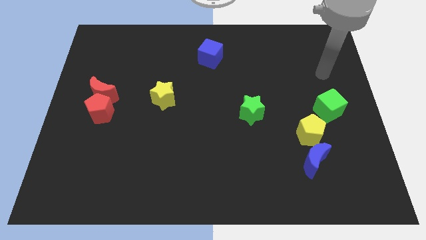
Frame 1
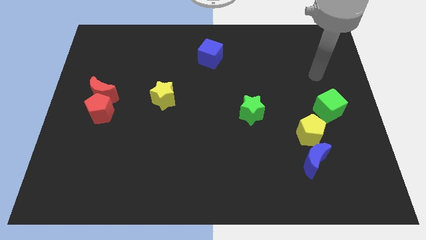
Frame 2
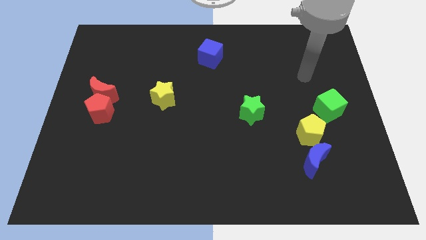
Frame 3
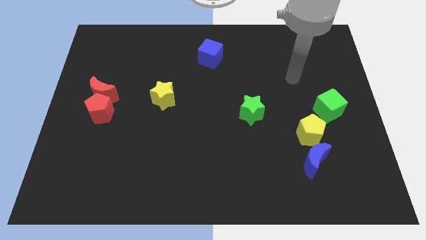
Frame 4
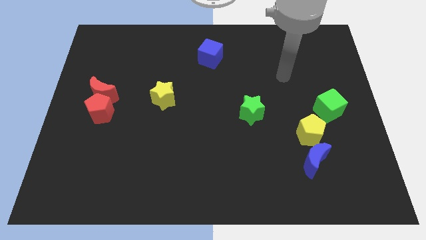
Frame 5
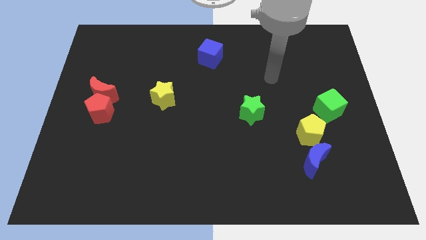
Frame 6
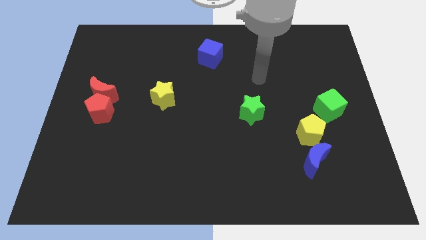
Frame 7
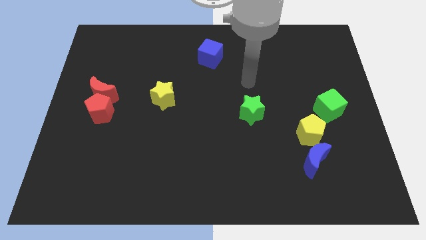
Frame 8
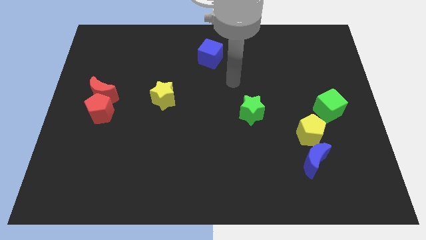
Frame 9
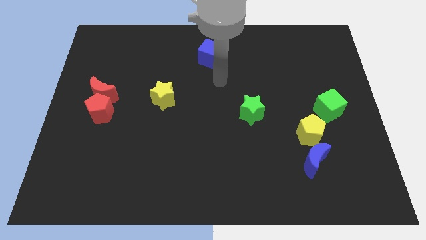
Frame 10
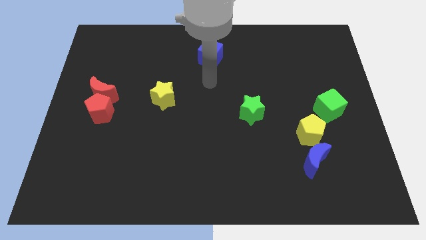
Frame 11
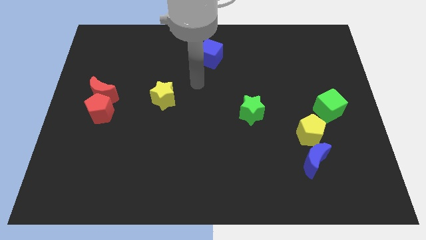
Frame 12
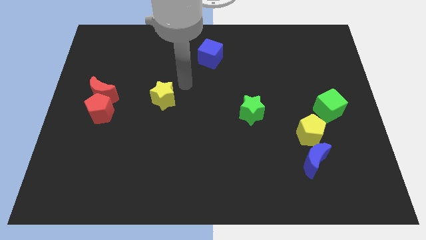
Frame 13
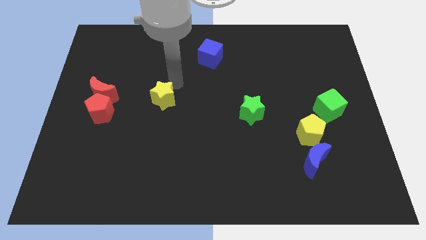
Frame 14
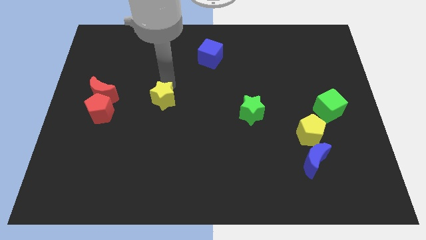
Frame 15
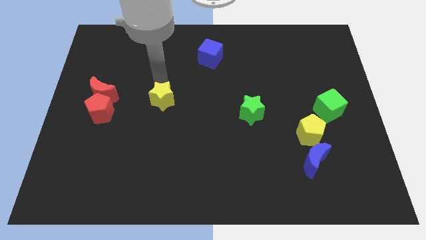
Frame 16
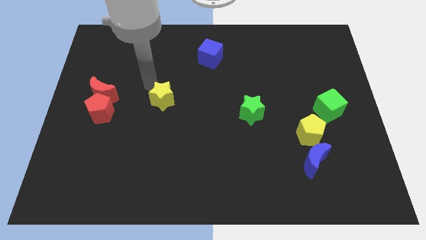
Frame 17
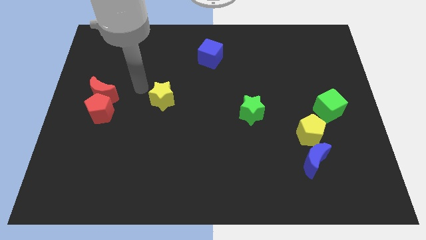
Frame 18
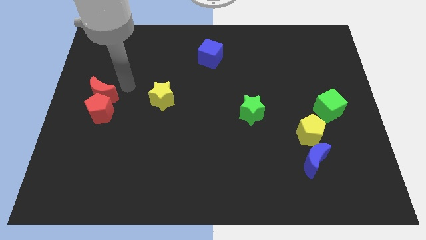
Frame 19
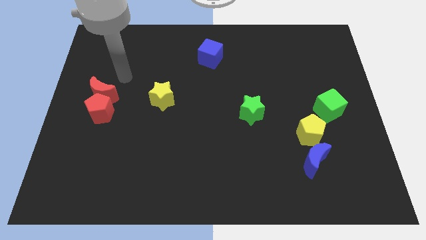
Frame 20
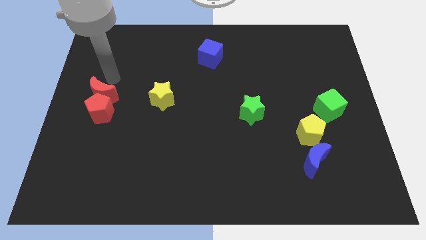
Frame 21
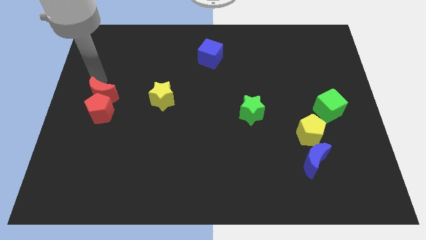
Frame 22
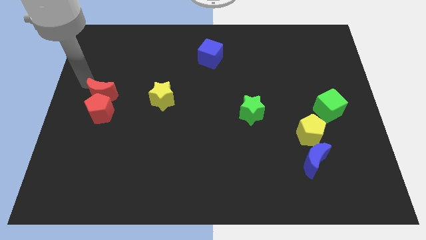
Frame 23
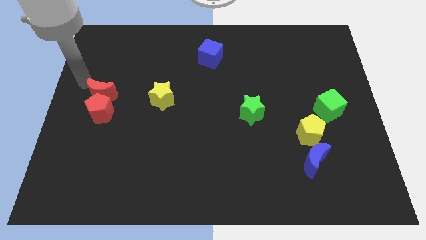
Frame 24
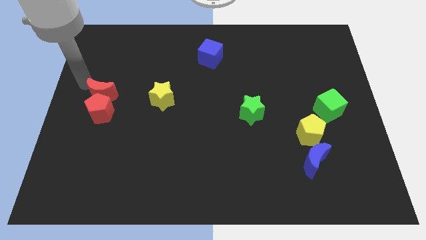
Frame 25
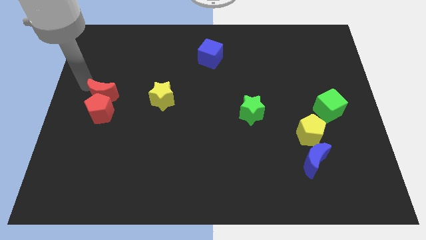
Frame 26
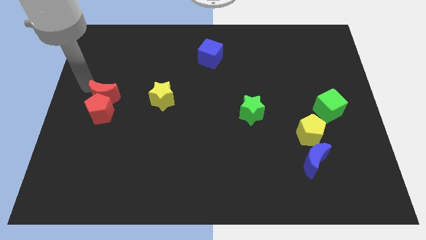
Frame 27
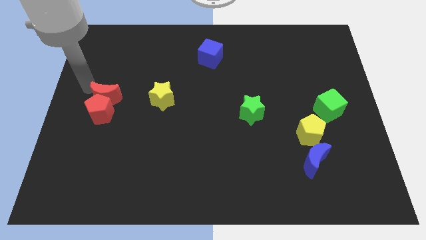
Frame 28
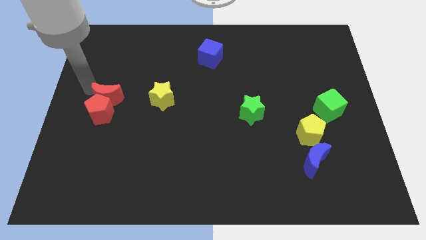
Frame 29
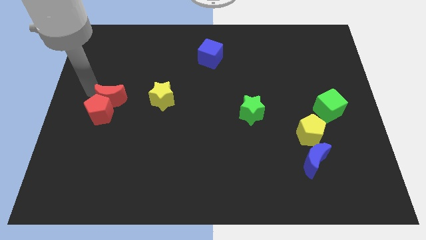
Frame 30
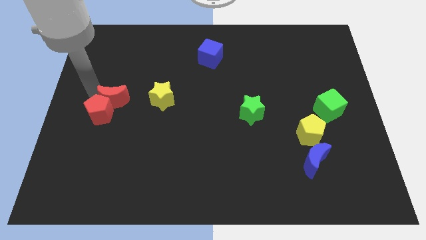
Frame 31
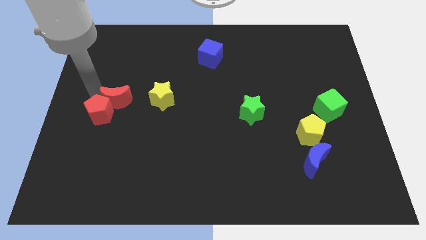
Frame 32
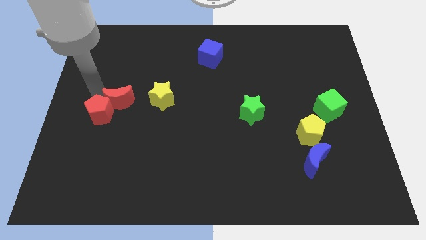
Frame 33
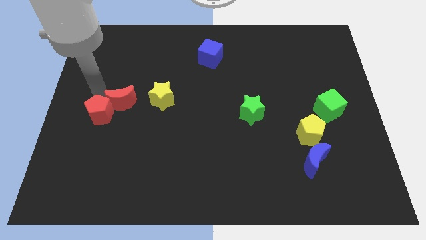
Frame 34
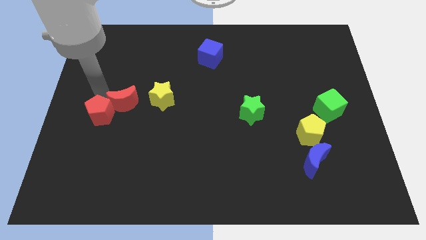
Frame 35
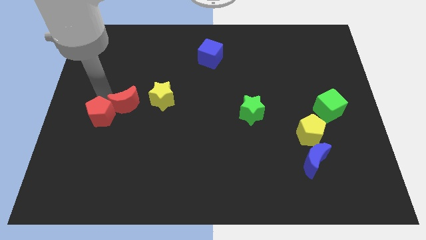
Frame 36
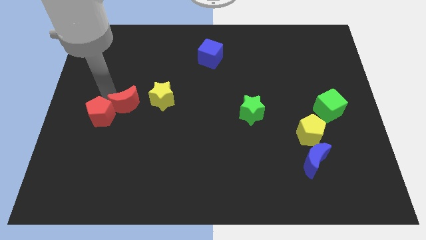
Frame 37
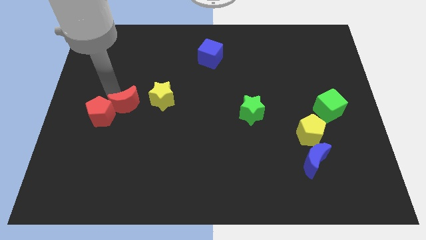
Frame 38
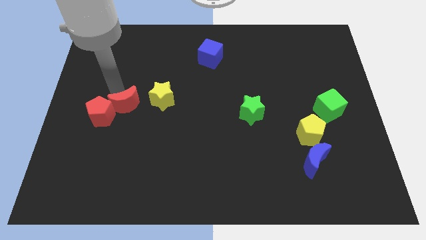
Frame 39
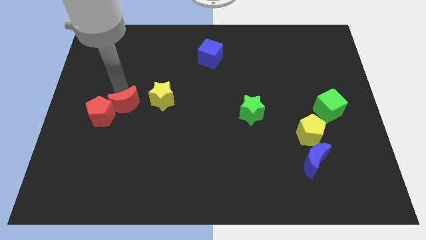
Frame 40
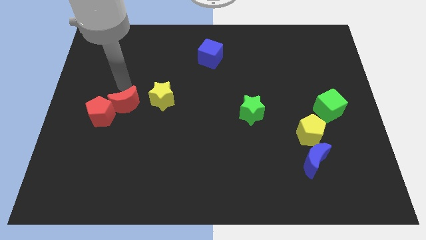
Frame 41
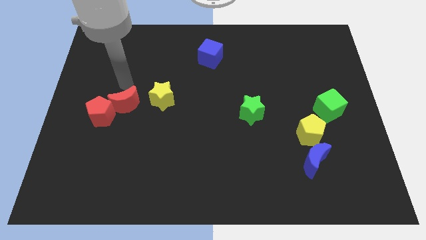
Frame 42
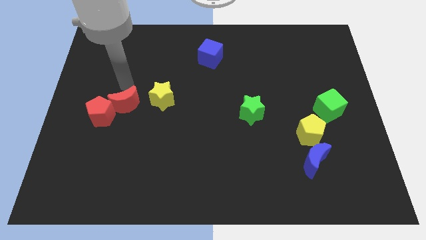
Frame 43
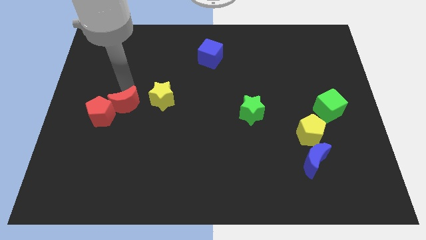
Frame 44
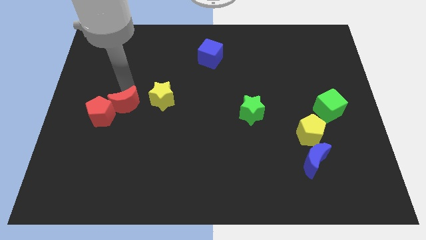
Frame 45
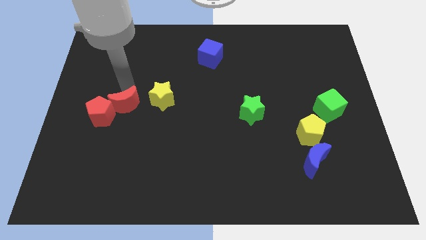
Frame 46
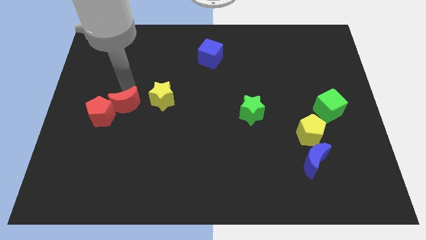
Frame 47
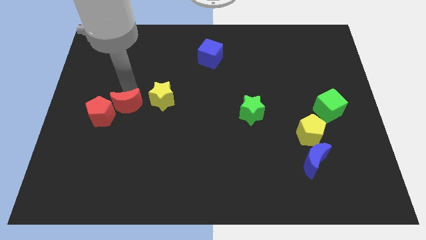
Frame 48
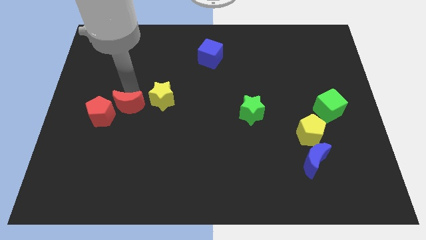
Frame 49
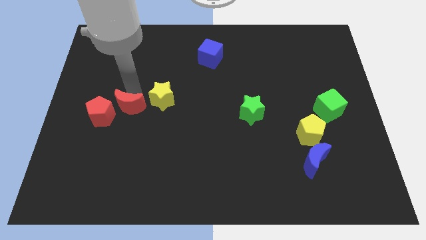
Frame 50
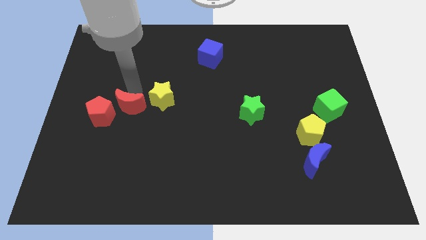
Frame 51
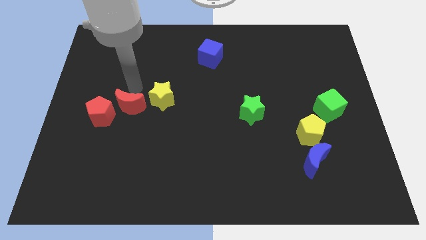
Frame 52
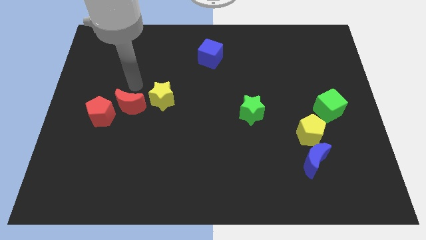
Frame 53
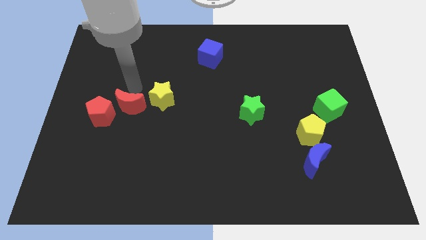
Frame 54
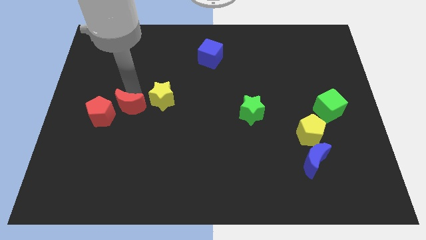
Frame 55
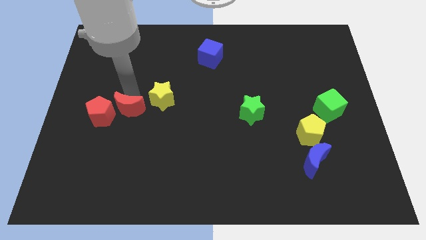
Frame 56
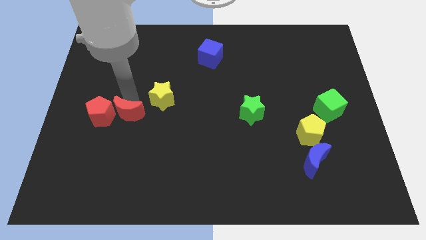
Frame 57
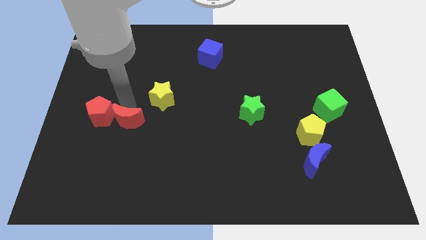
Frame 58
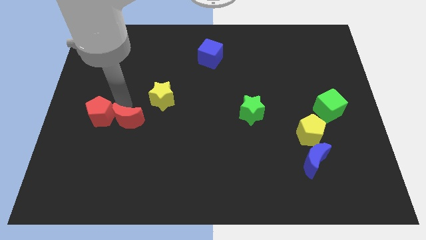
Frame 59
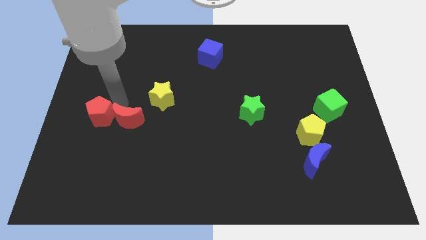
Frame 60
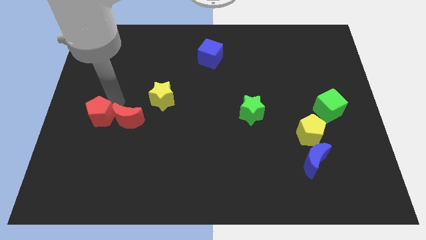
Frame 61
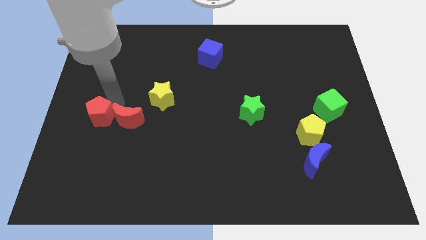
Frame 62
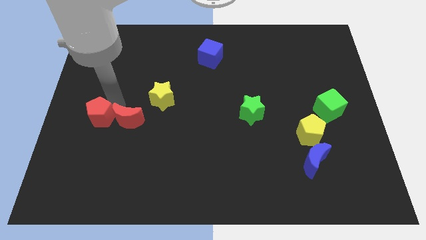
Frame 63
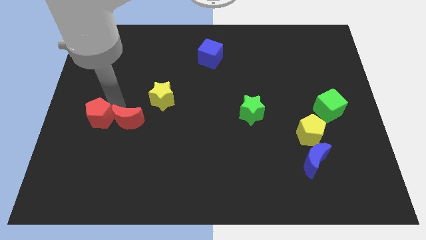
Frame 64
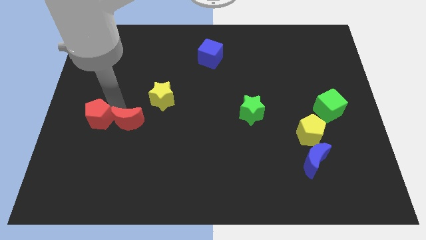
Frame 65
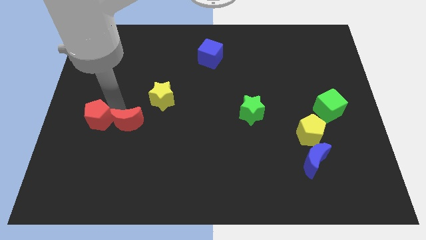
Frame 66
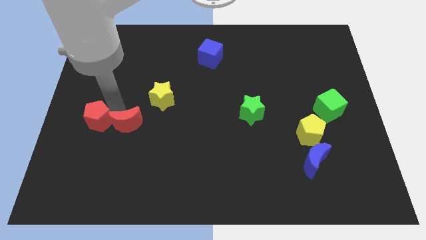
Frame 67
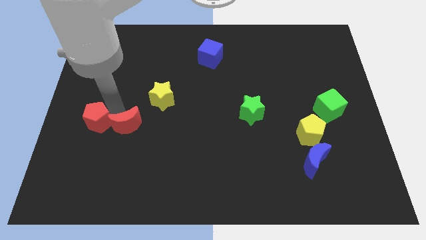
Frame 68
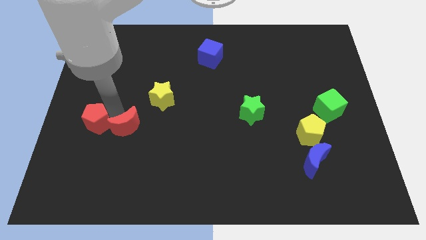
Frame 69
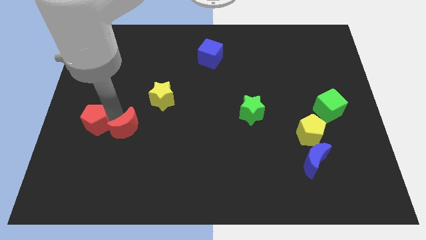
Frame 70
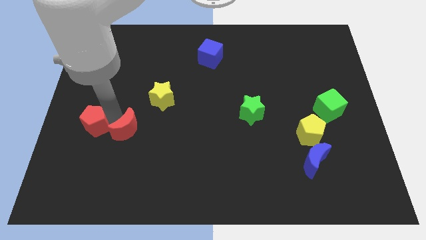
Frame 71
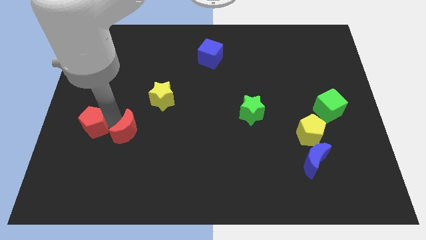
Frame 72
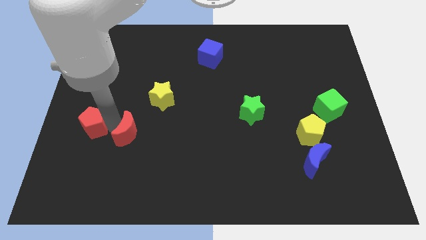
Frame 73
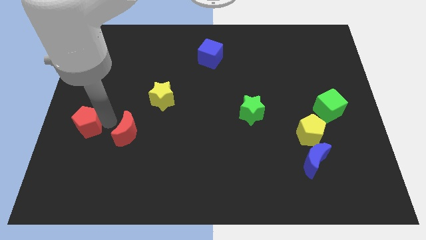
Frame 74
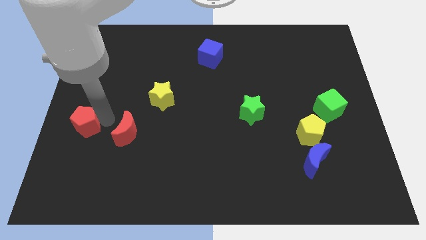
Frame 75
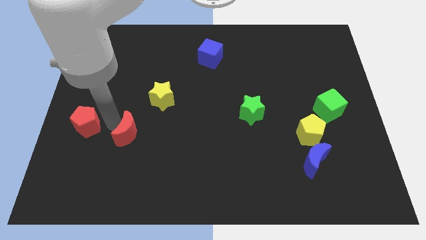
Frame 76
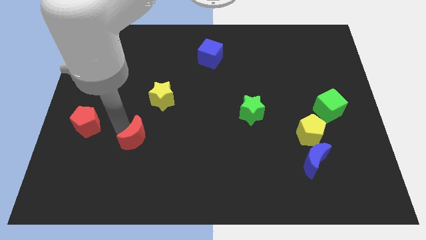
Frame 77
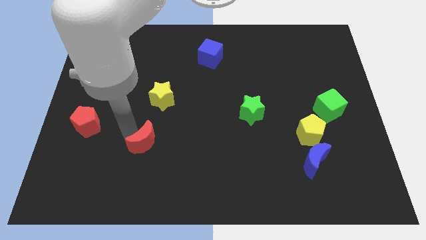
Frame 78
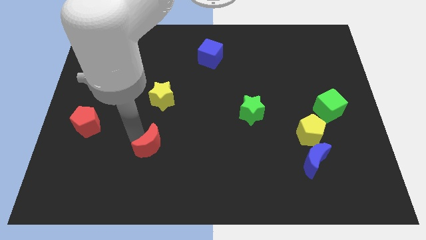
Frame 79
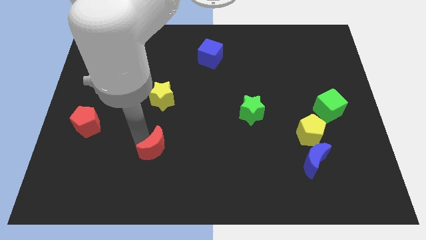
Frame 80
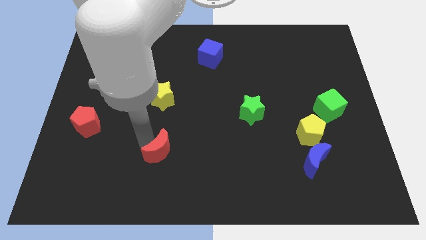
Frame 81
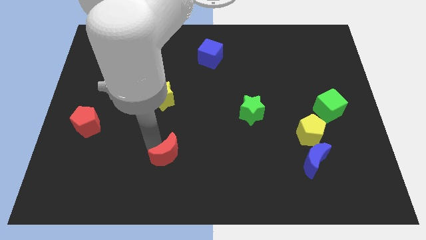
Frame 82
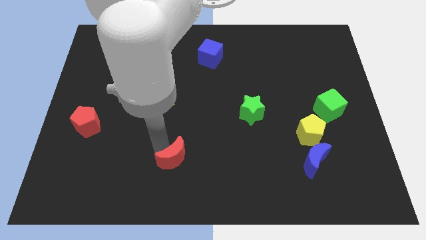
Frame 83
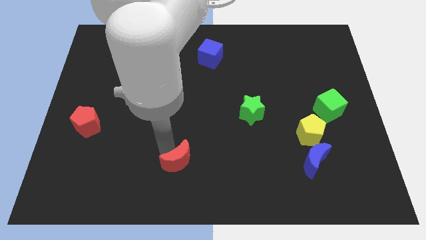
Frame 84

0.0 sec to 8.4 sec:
move the red moon to the bottom side
